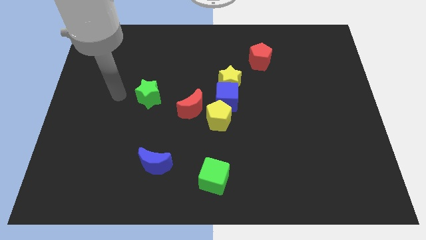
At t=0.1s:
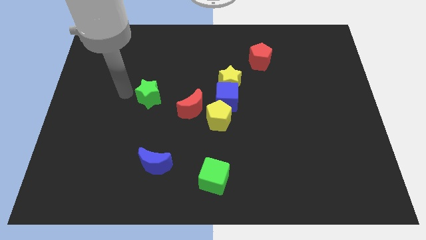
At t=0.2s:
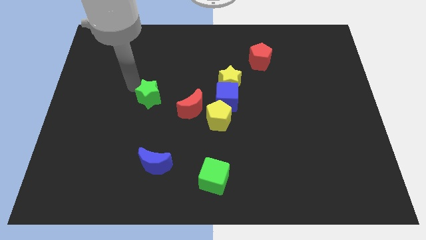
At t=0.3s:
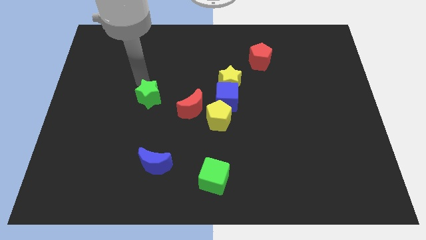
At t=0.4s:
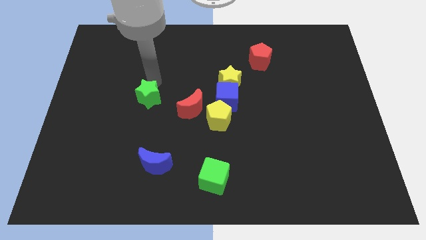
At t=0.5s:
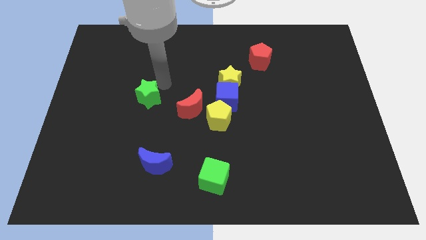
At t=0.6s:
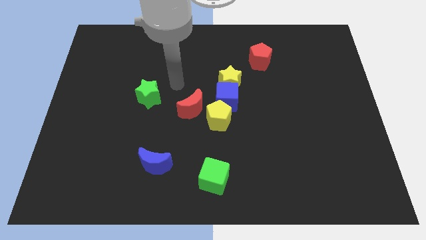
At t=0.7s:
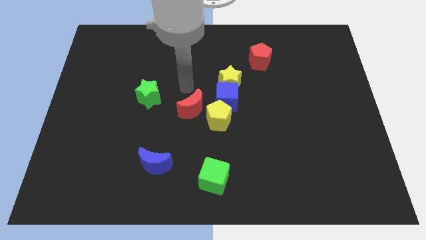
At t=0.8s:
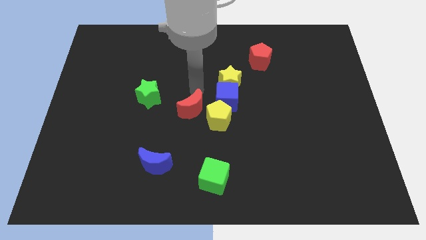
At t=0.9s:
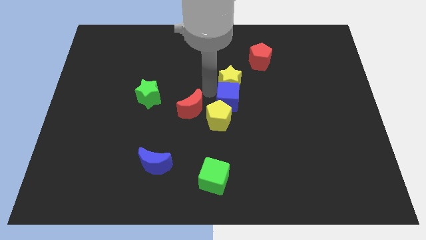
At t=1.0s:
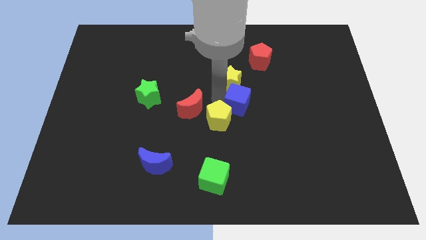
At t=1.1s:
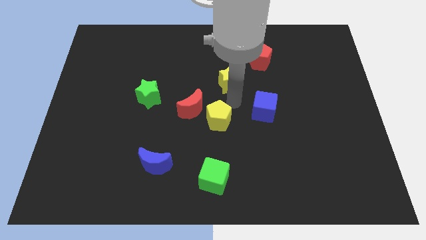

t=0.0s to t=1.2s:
move the yellow star away from the blue cube

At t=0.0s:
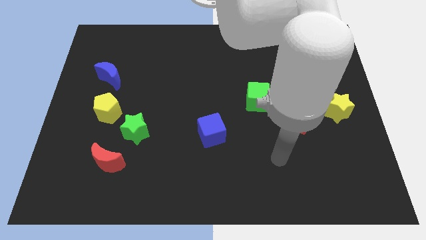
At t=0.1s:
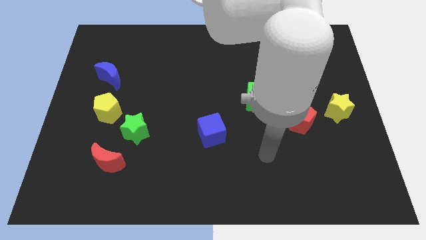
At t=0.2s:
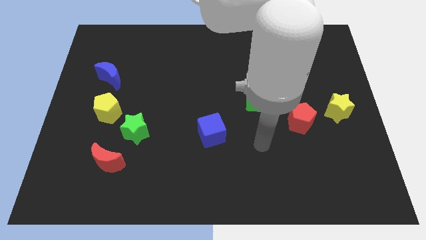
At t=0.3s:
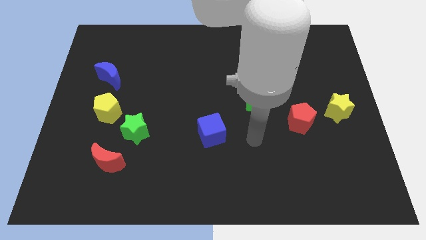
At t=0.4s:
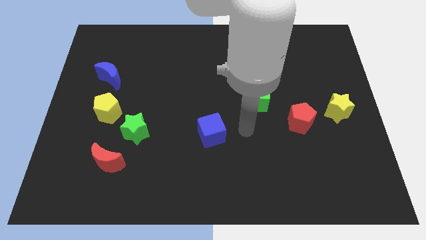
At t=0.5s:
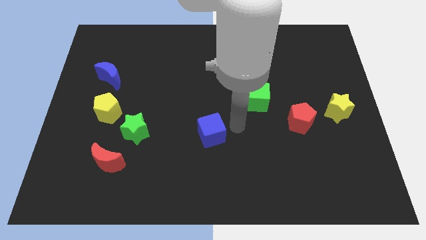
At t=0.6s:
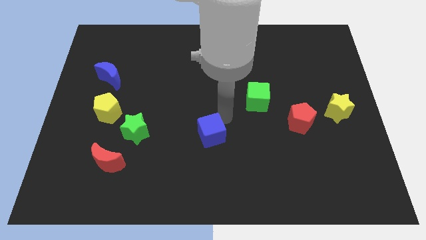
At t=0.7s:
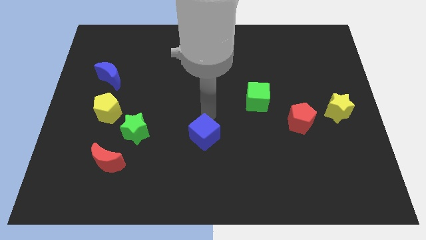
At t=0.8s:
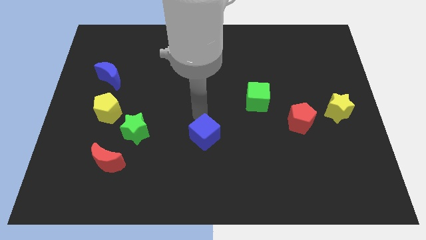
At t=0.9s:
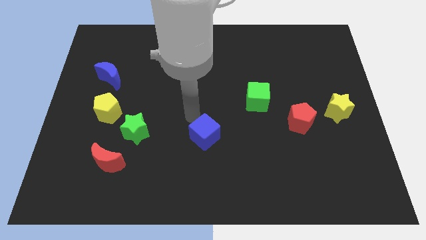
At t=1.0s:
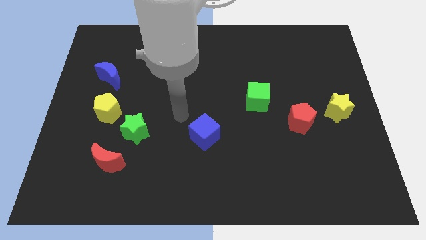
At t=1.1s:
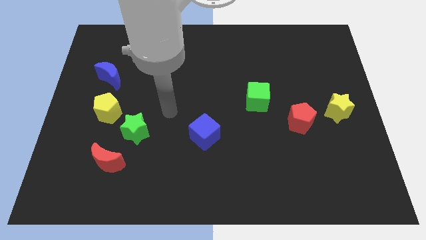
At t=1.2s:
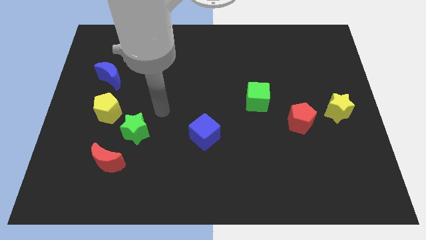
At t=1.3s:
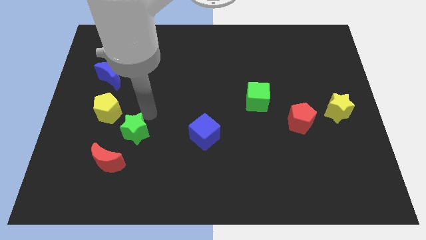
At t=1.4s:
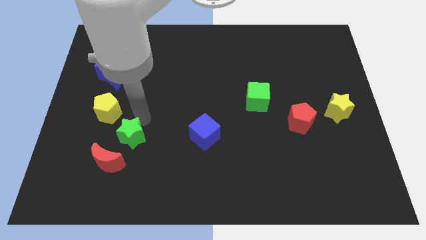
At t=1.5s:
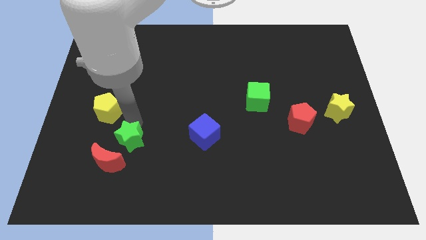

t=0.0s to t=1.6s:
separate the yellow pentagon from the green star

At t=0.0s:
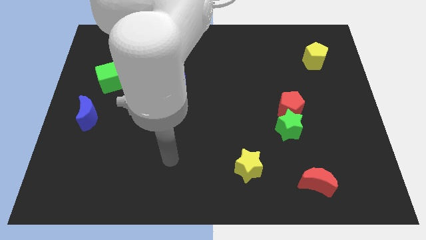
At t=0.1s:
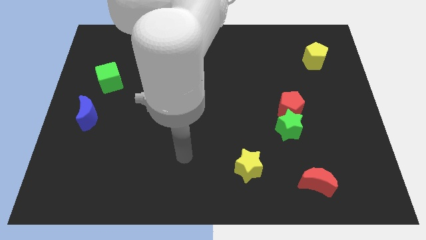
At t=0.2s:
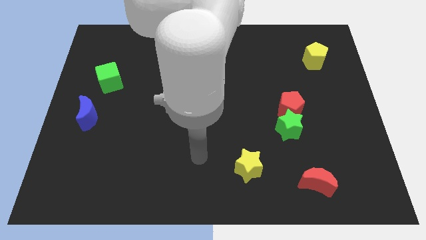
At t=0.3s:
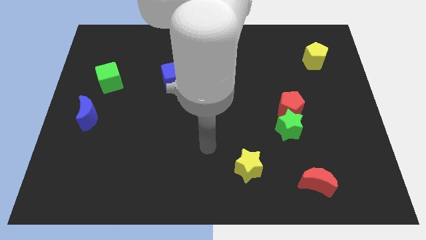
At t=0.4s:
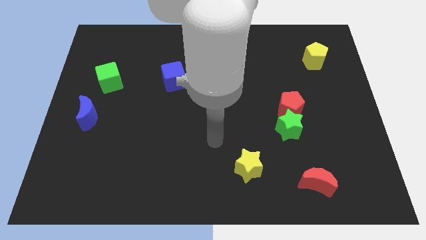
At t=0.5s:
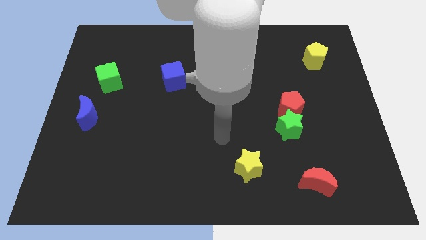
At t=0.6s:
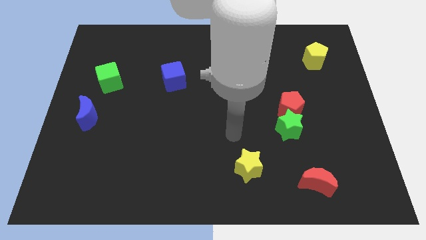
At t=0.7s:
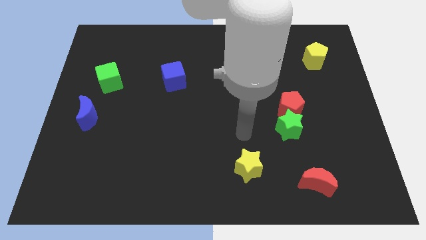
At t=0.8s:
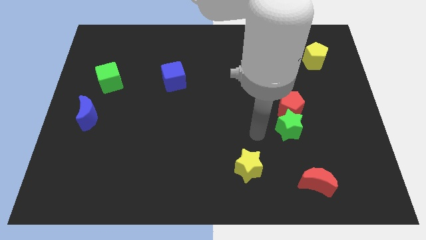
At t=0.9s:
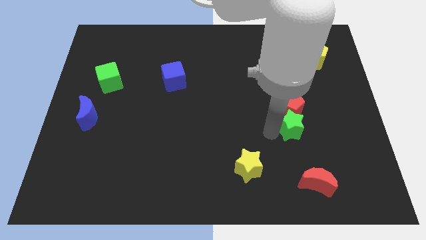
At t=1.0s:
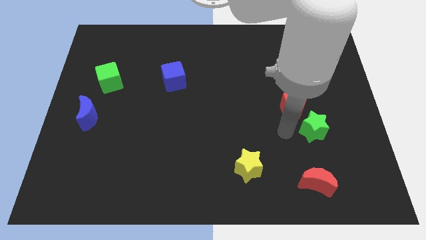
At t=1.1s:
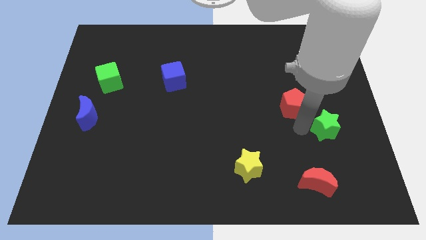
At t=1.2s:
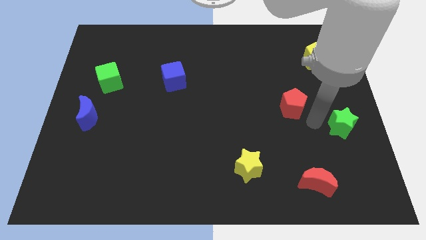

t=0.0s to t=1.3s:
pull the red pentagon apart from the green star

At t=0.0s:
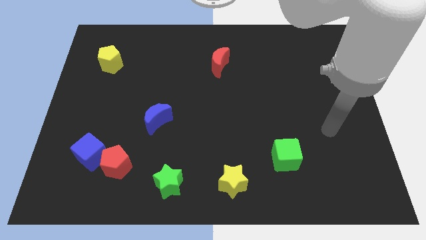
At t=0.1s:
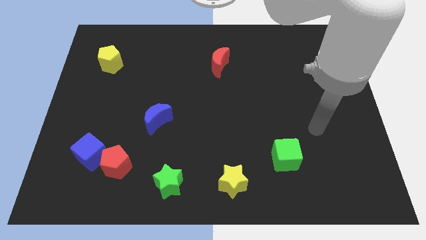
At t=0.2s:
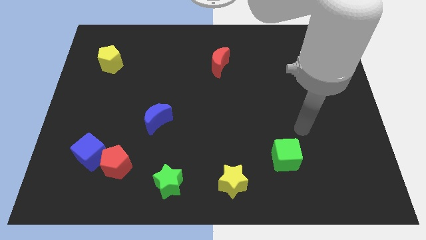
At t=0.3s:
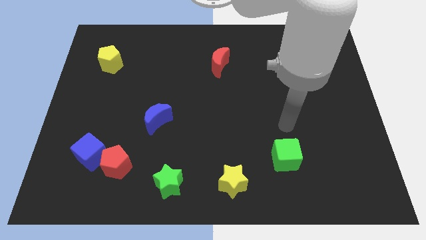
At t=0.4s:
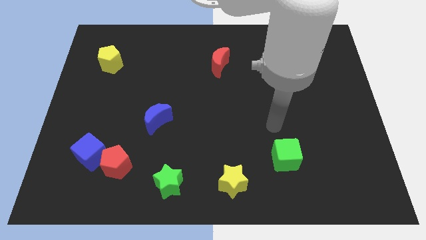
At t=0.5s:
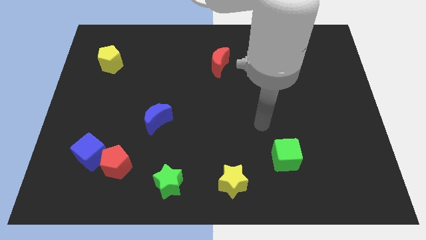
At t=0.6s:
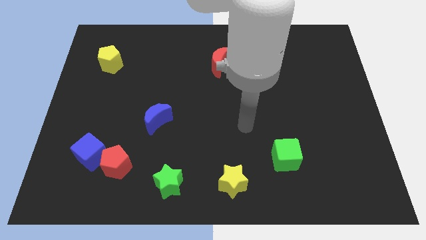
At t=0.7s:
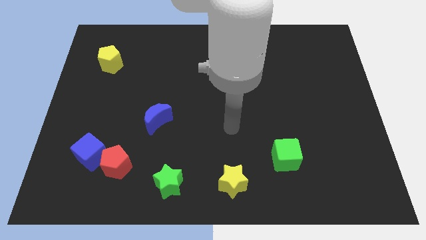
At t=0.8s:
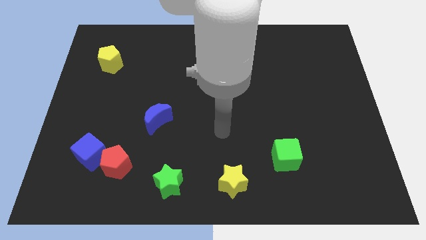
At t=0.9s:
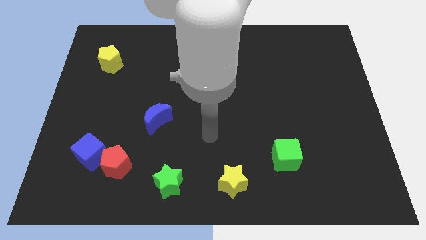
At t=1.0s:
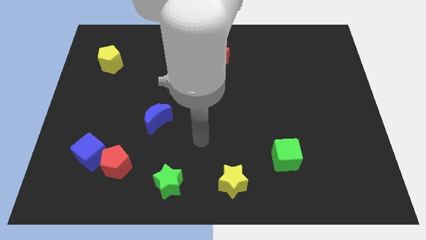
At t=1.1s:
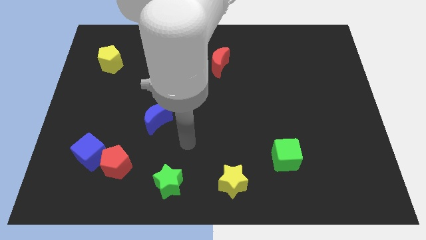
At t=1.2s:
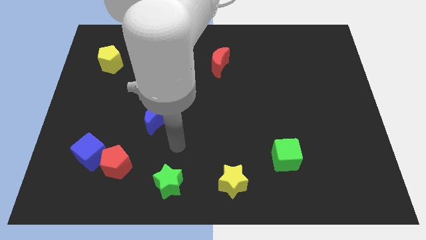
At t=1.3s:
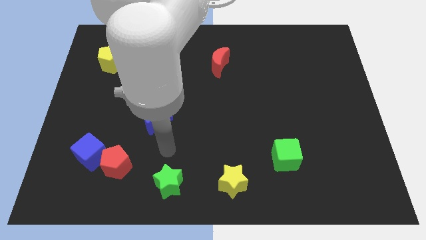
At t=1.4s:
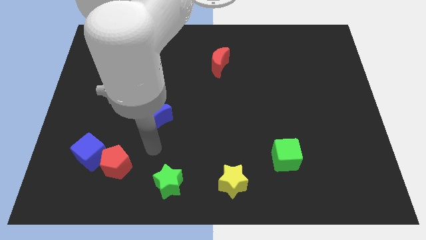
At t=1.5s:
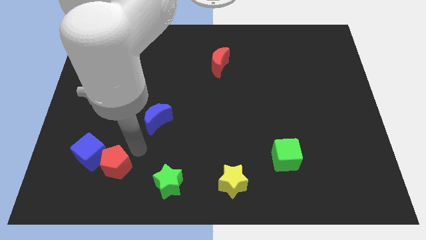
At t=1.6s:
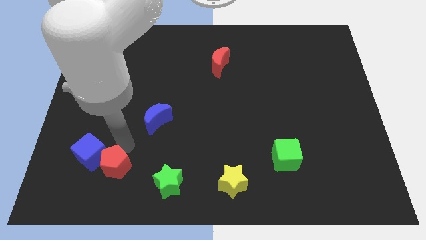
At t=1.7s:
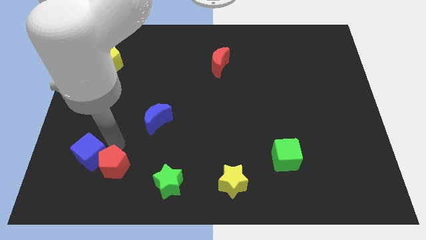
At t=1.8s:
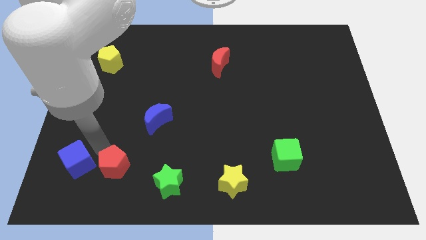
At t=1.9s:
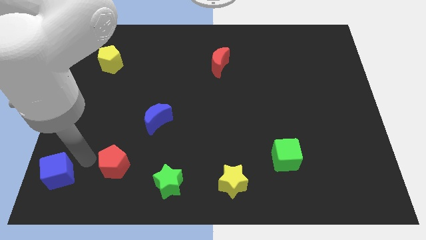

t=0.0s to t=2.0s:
move the red pentagon away from the blue cube

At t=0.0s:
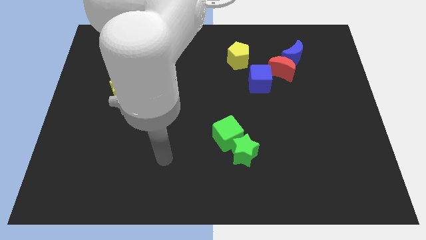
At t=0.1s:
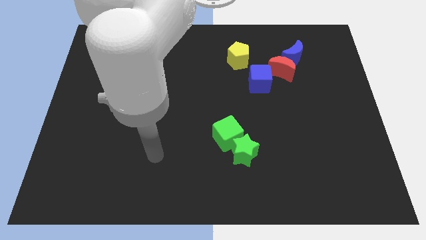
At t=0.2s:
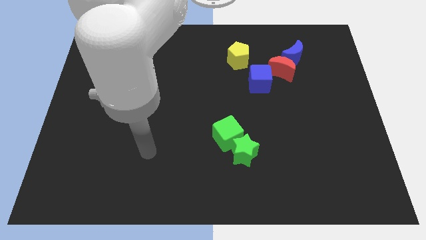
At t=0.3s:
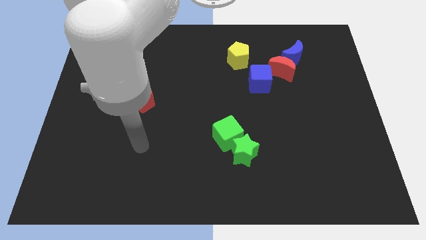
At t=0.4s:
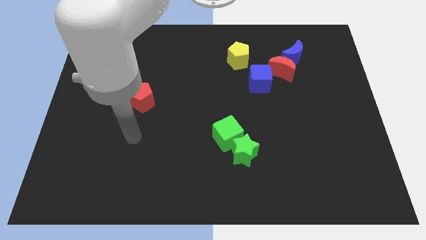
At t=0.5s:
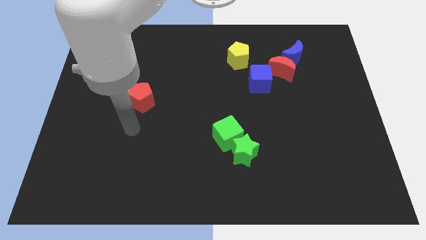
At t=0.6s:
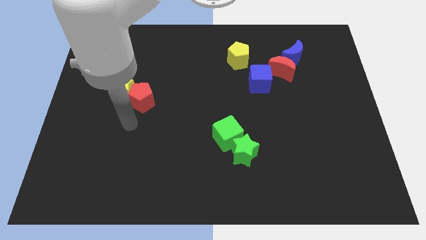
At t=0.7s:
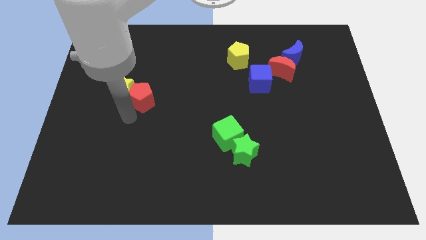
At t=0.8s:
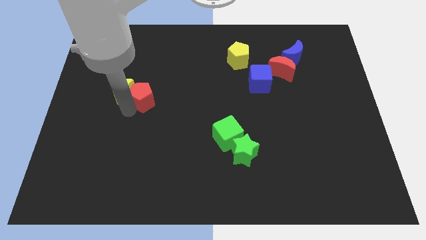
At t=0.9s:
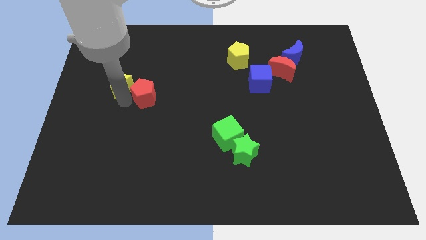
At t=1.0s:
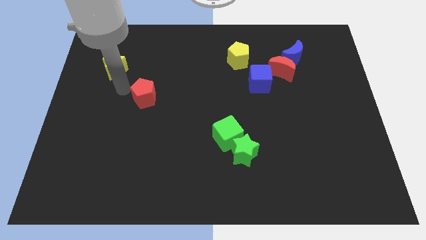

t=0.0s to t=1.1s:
move the red pentagon away from the yellow star

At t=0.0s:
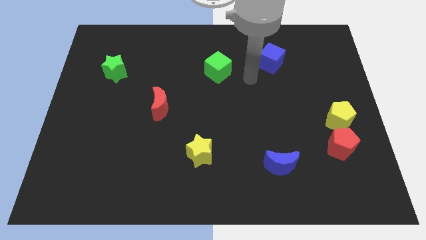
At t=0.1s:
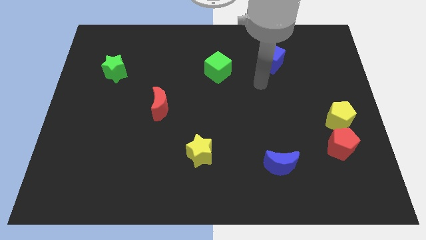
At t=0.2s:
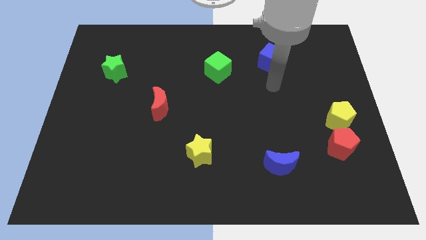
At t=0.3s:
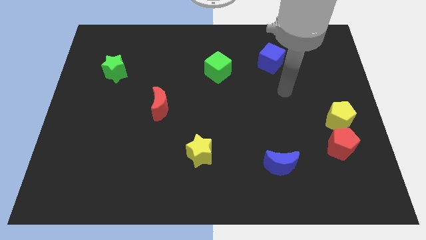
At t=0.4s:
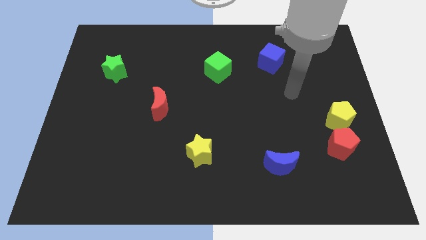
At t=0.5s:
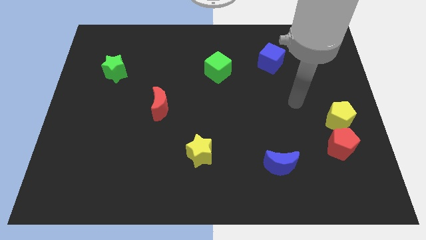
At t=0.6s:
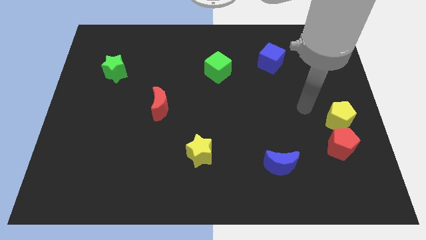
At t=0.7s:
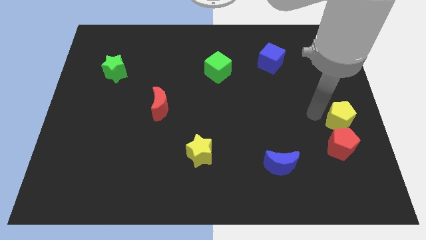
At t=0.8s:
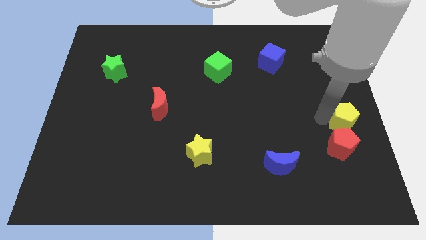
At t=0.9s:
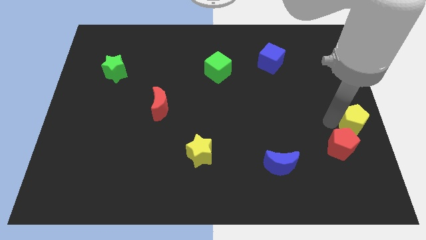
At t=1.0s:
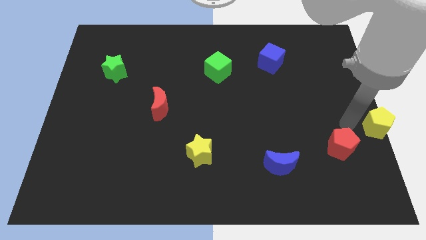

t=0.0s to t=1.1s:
pull the red pentagon apart from the yellow pentagon

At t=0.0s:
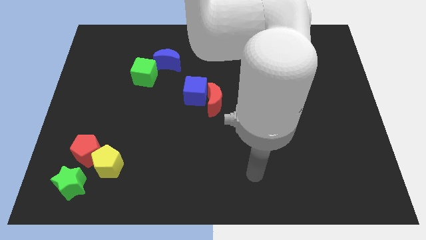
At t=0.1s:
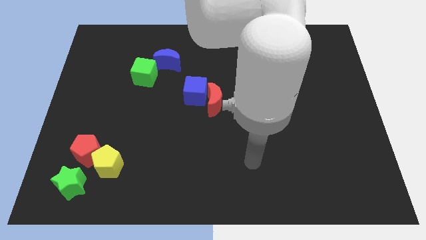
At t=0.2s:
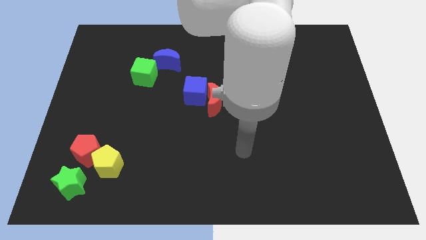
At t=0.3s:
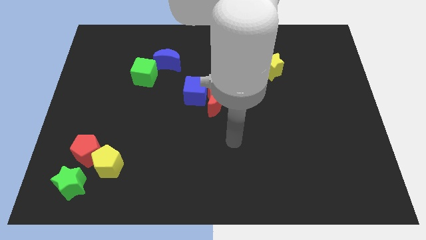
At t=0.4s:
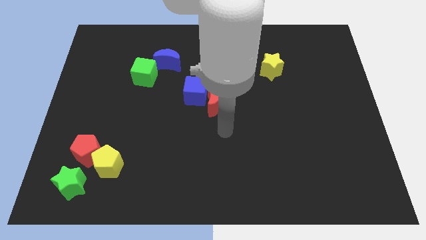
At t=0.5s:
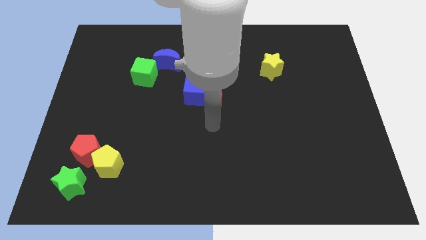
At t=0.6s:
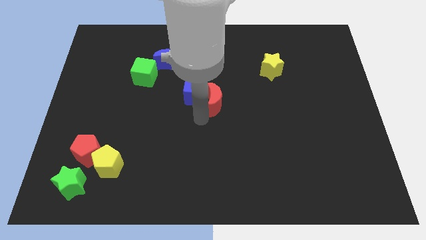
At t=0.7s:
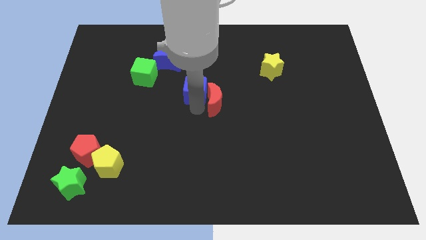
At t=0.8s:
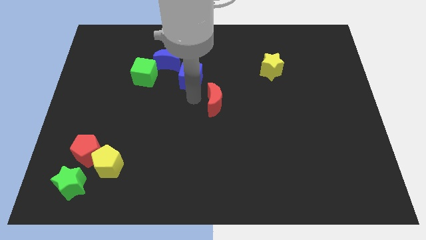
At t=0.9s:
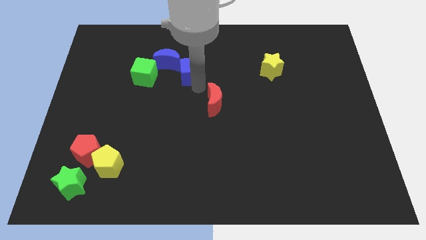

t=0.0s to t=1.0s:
pull the red moon apart from the blue cube
